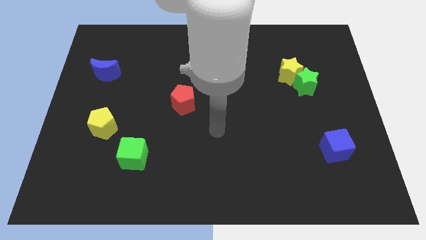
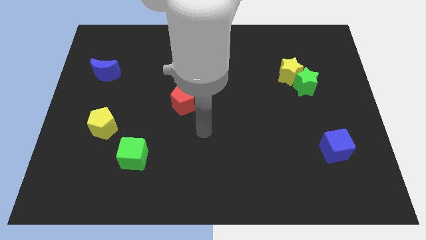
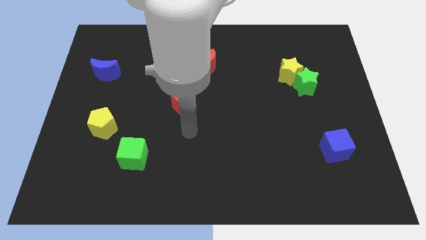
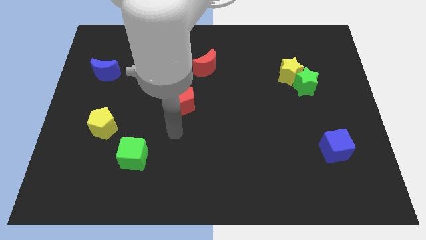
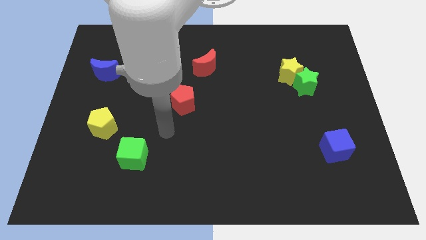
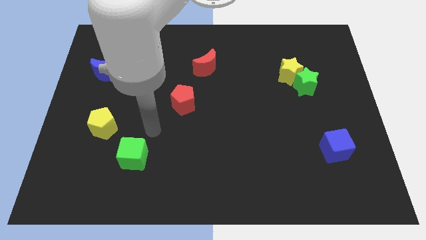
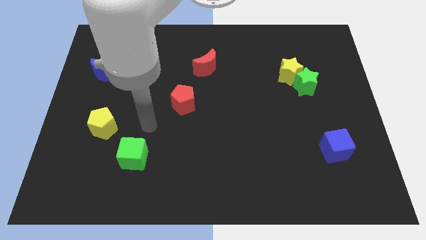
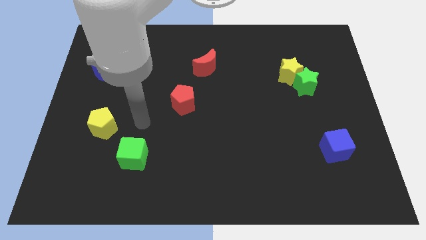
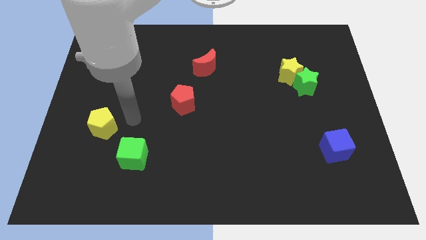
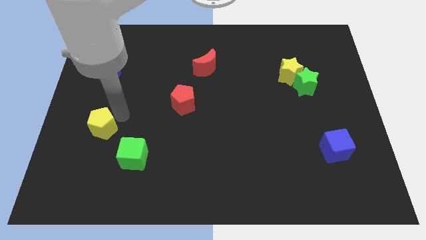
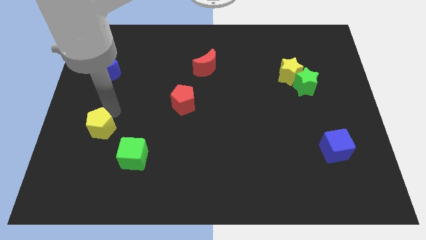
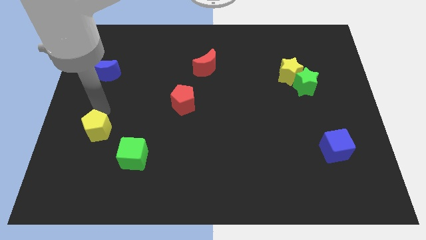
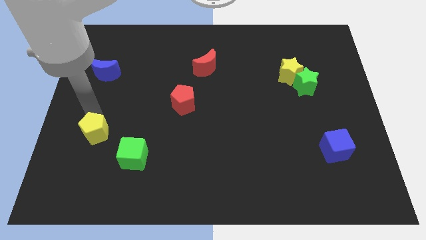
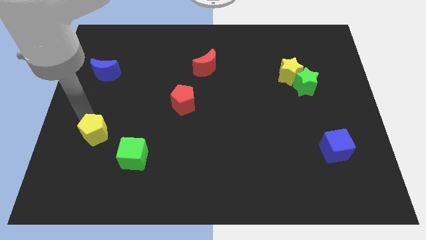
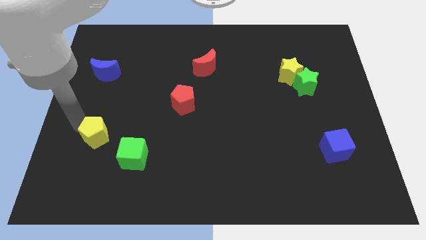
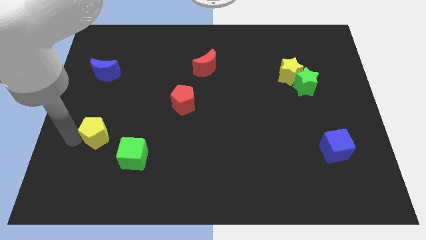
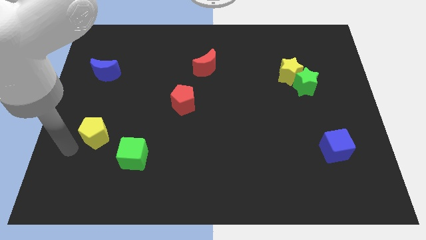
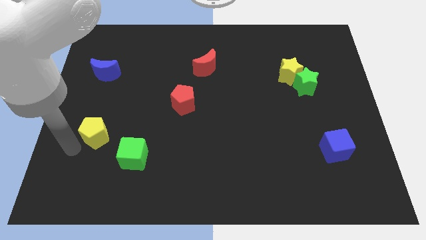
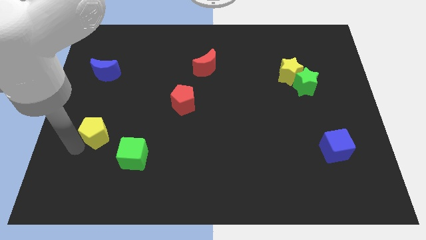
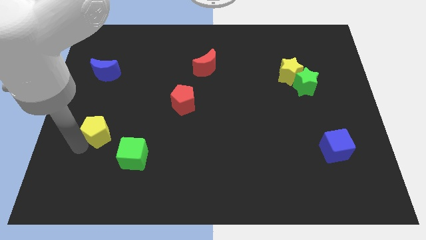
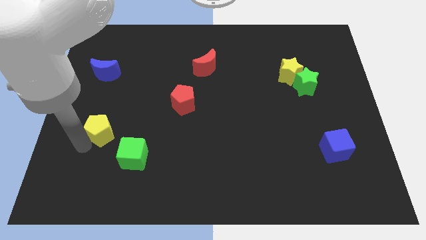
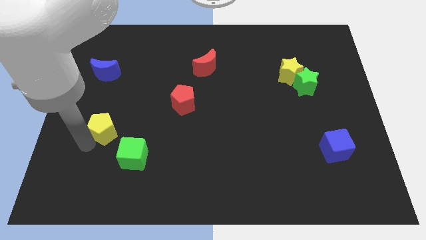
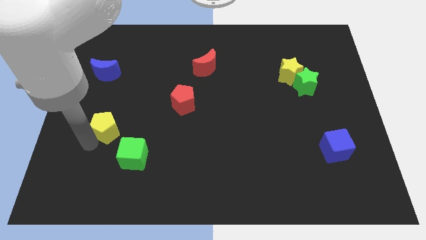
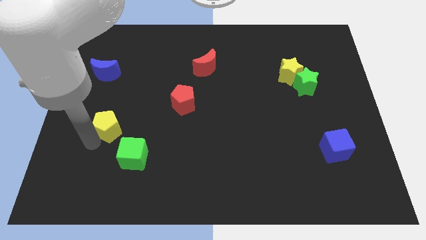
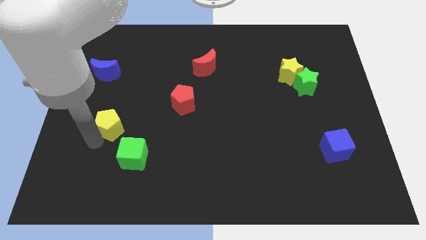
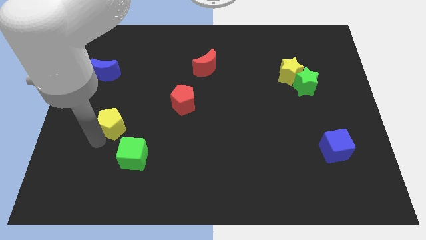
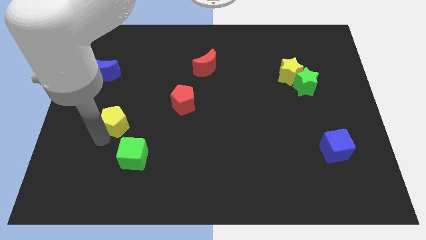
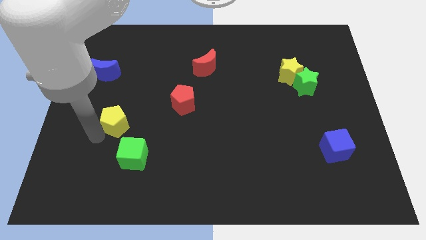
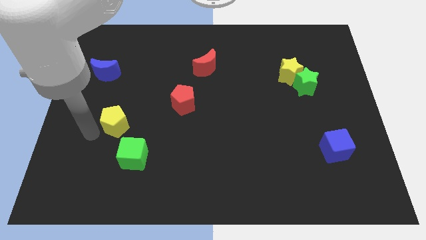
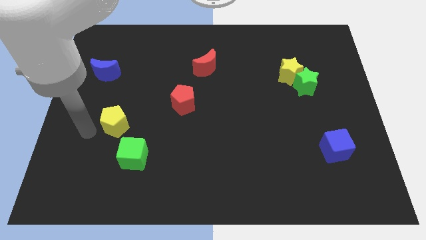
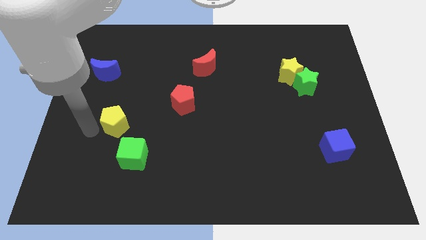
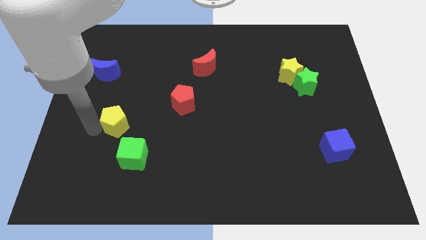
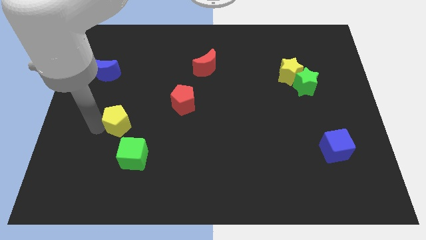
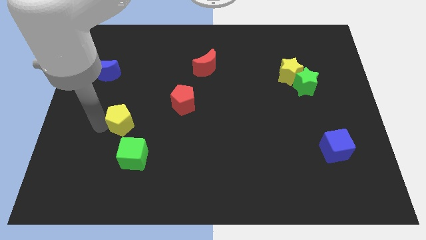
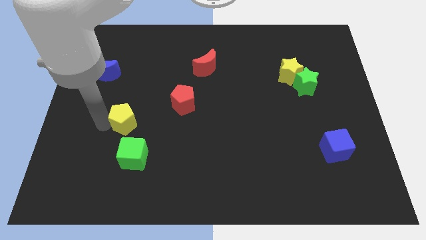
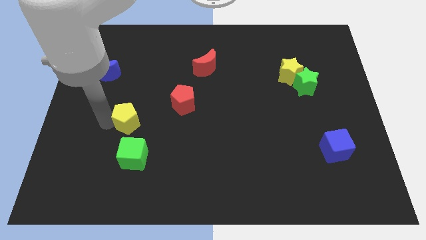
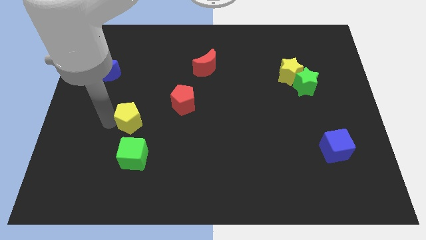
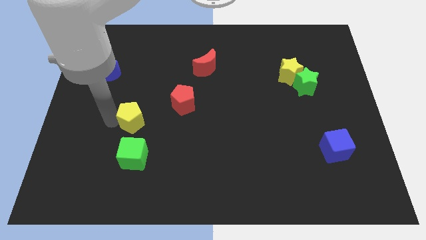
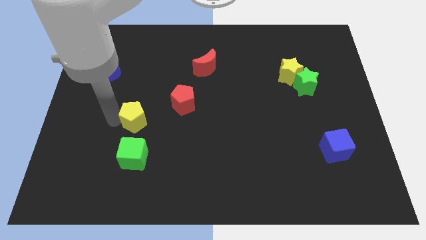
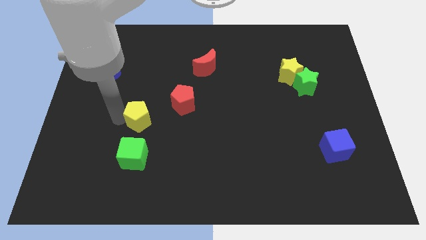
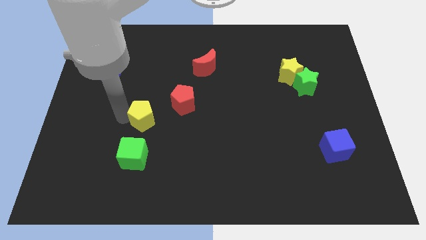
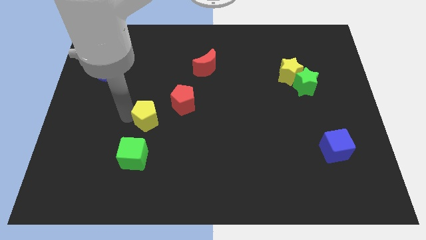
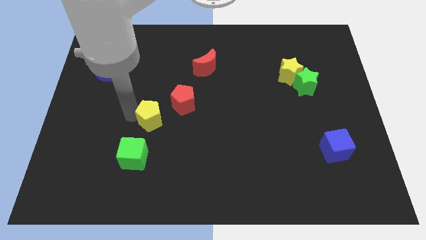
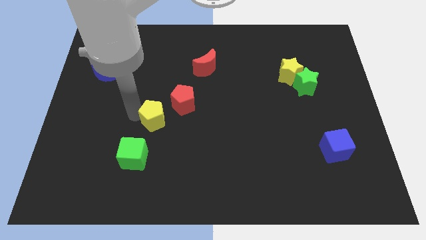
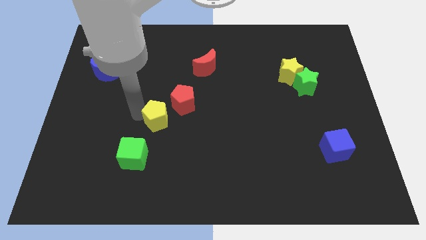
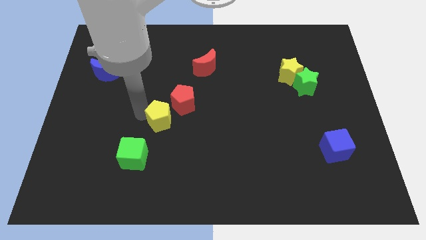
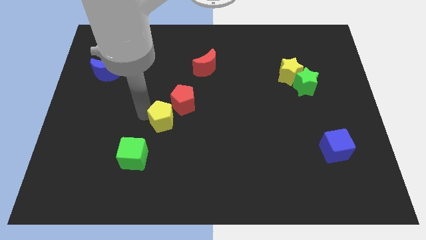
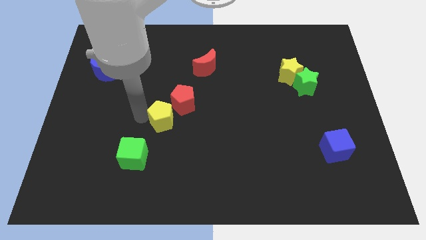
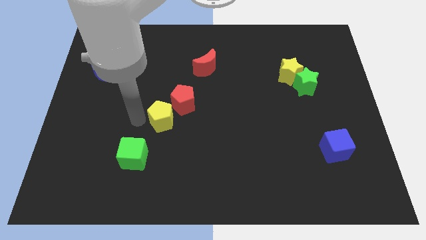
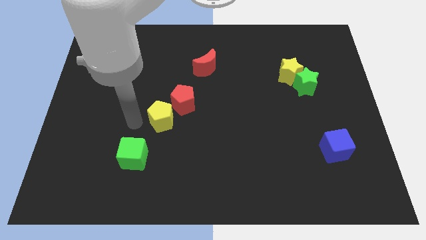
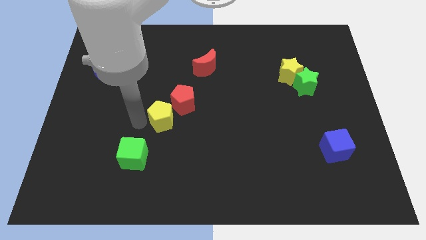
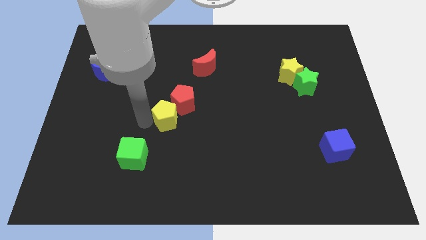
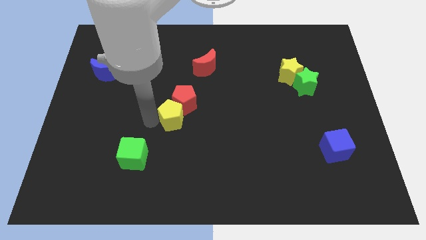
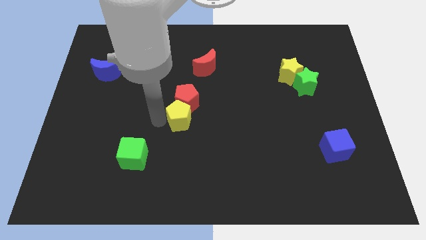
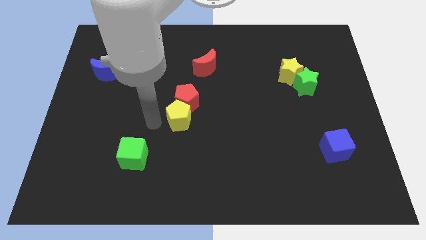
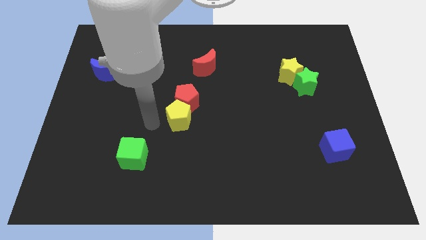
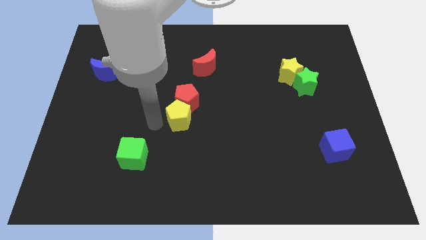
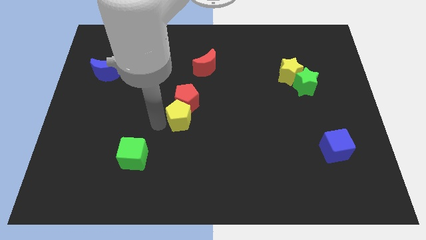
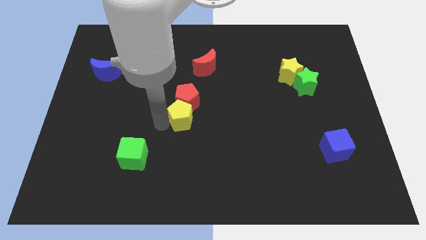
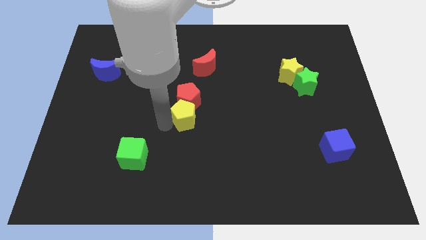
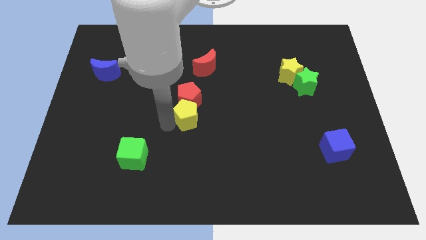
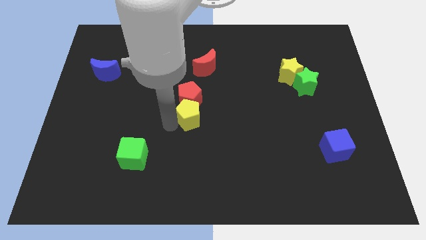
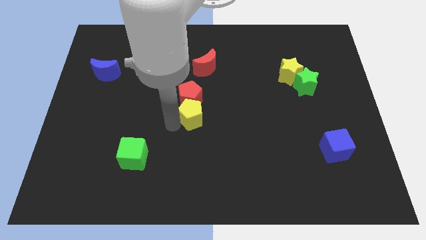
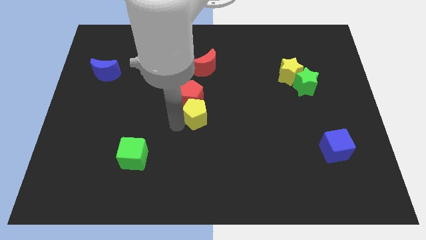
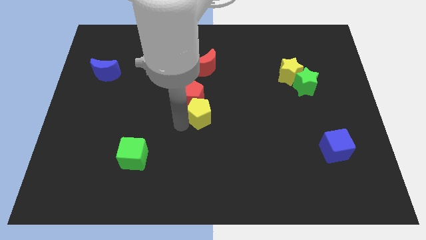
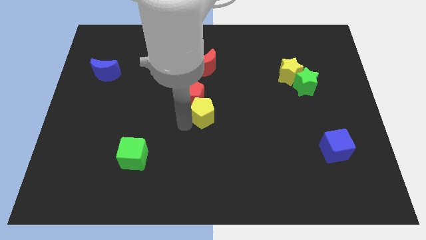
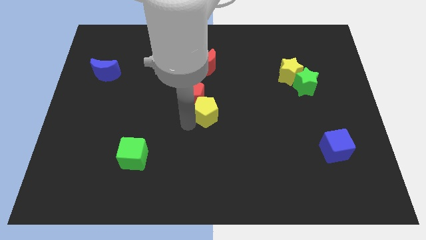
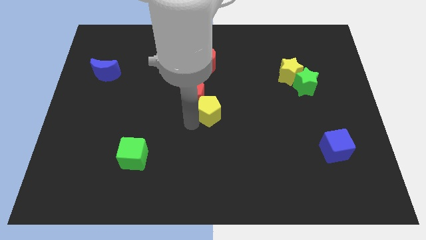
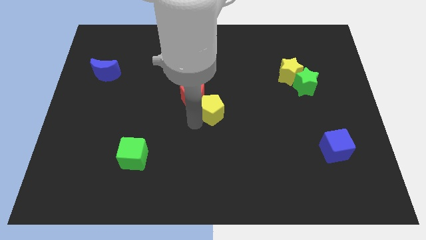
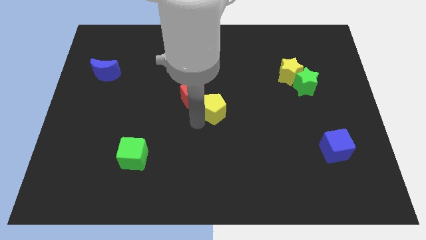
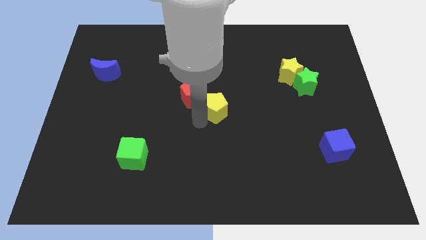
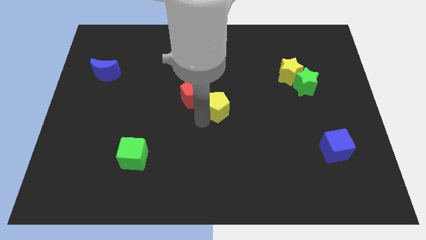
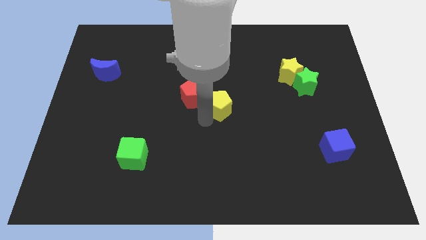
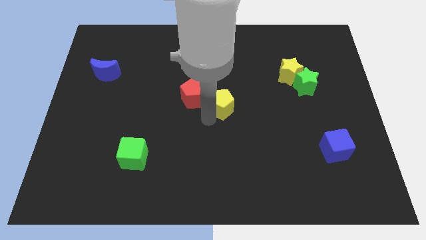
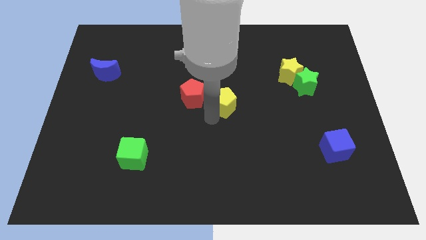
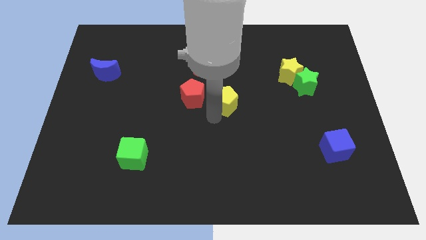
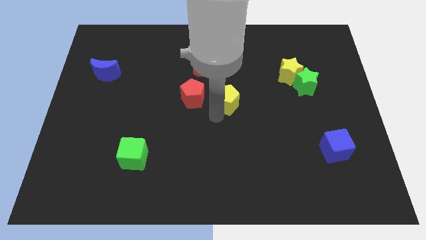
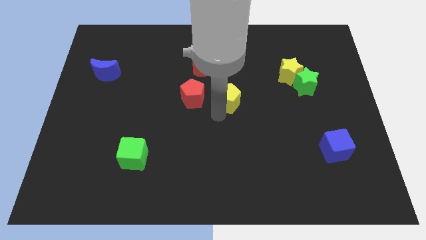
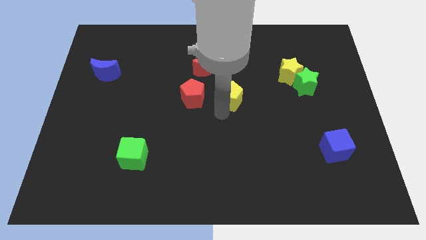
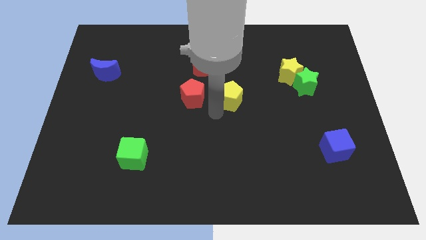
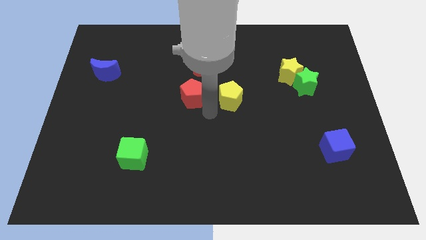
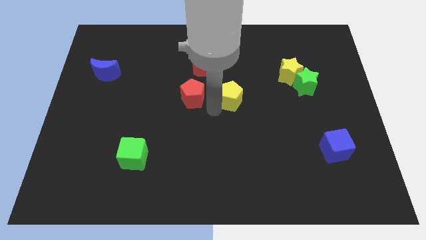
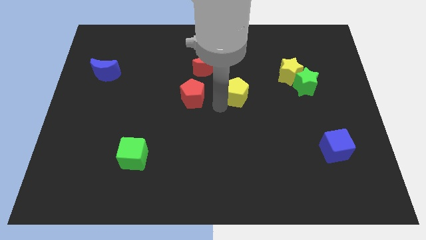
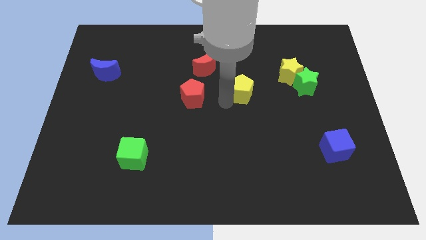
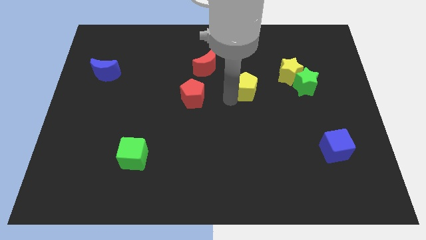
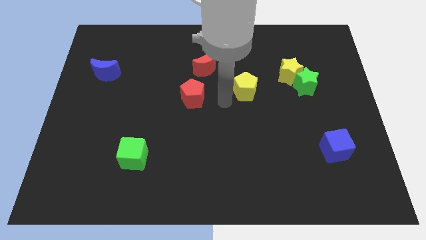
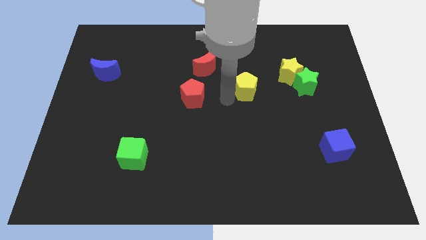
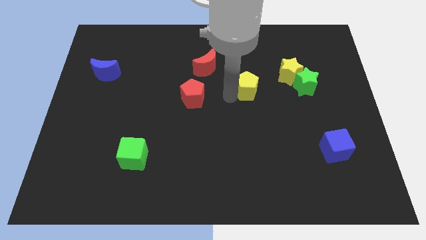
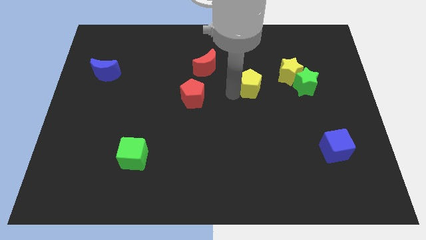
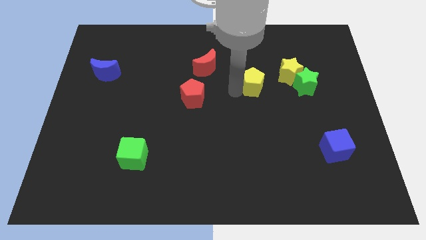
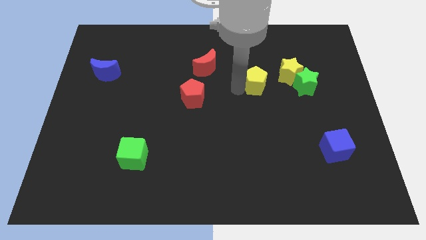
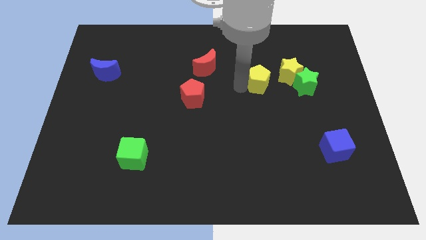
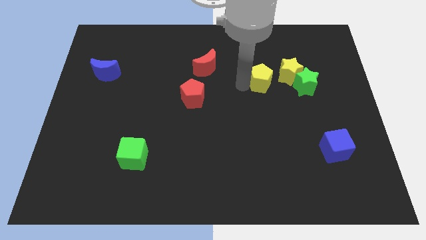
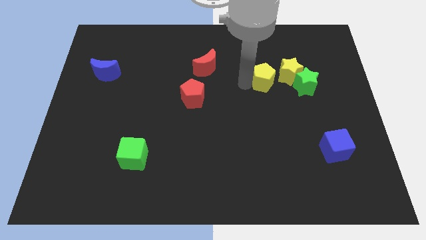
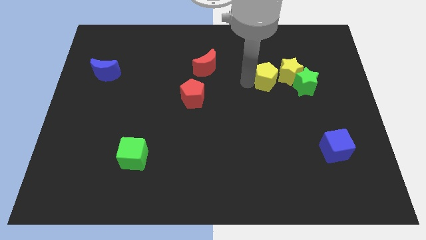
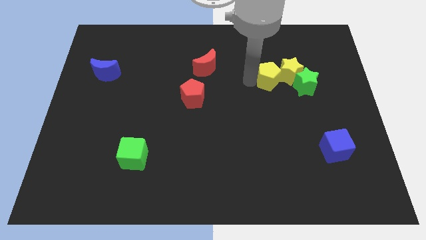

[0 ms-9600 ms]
put the yellow pentagon diagonally up and to the left of the green star
